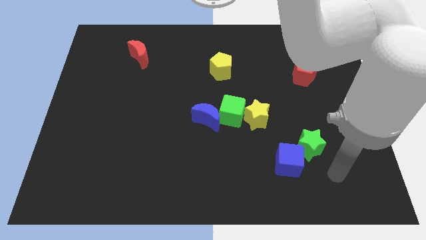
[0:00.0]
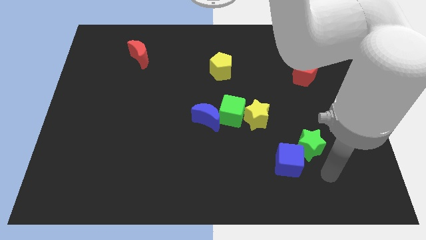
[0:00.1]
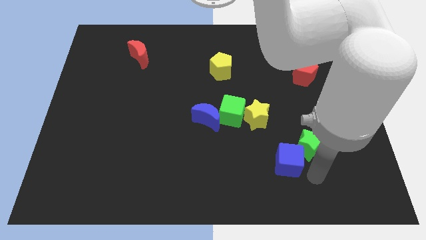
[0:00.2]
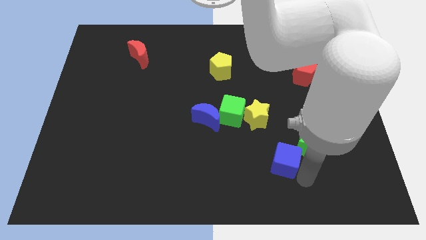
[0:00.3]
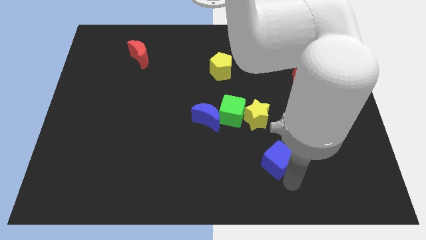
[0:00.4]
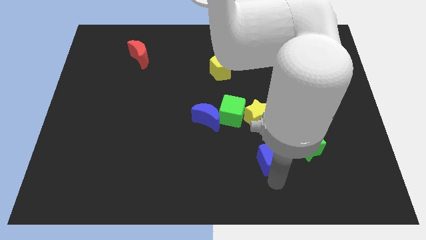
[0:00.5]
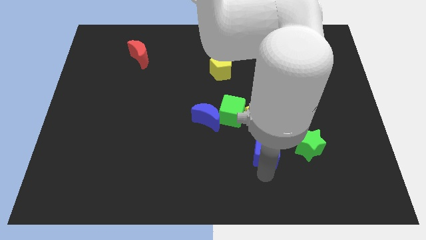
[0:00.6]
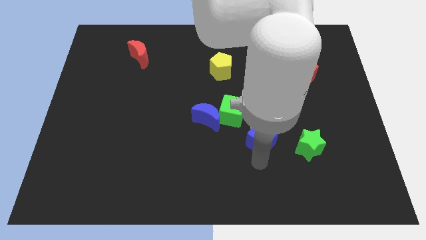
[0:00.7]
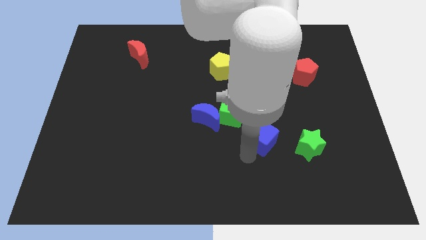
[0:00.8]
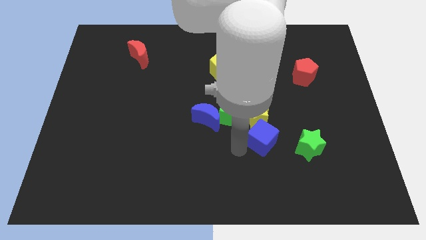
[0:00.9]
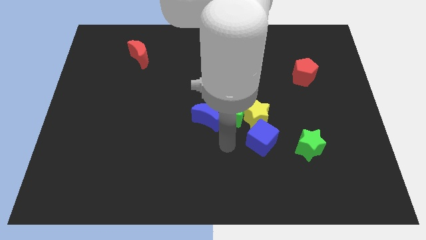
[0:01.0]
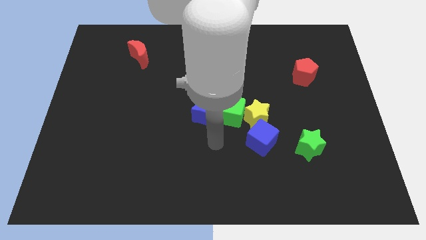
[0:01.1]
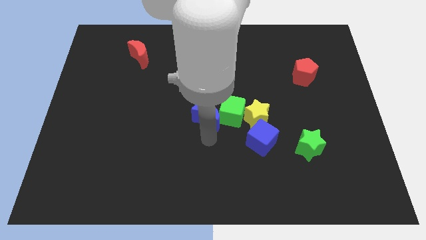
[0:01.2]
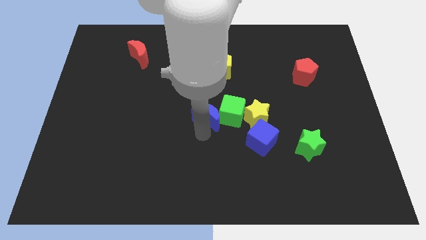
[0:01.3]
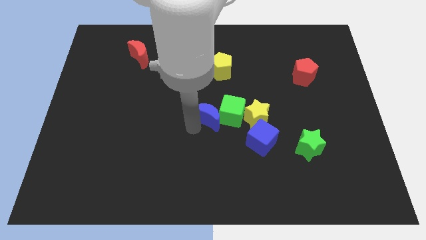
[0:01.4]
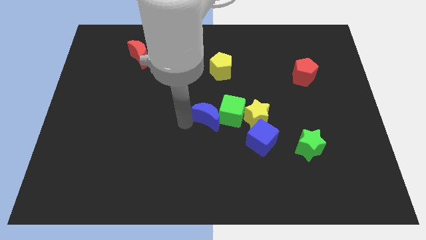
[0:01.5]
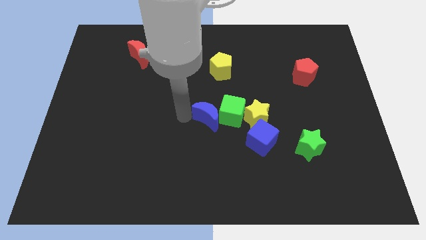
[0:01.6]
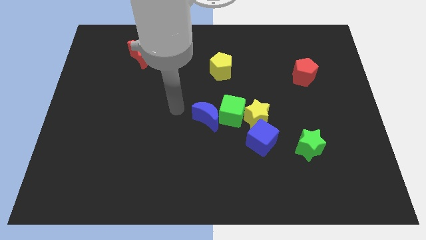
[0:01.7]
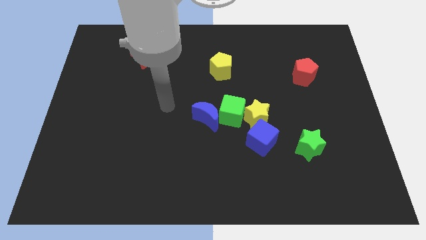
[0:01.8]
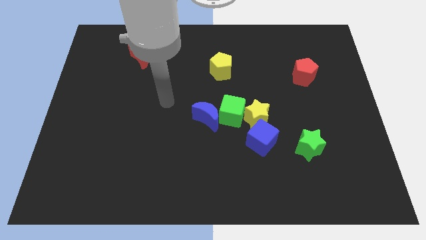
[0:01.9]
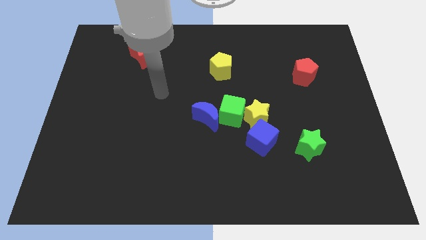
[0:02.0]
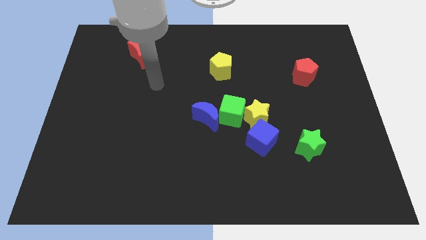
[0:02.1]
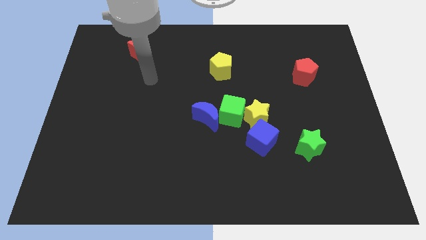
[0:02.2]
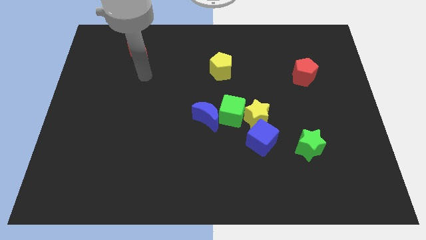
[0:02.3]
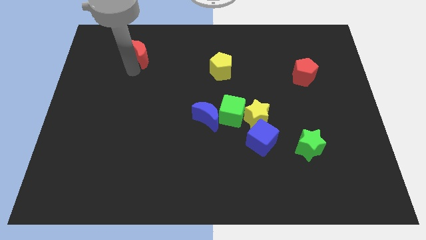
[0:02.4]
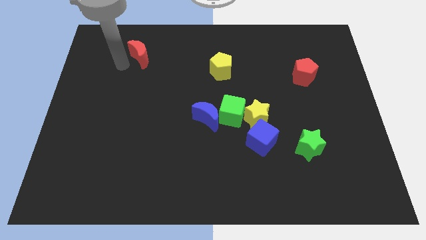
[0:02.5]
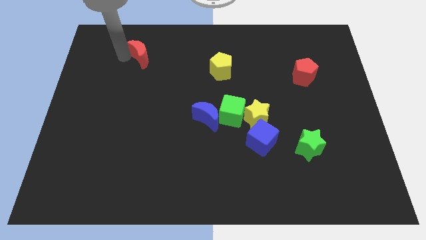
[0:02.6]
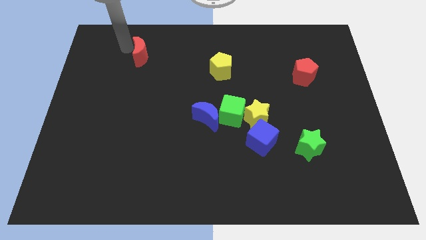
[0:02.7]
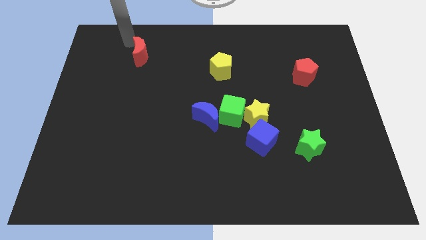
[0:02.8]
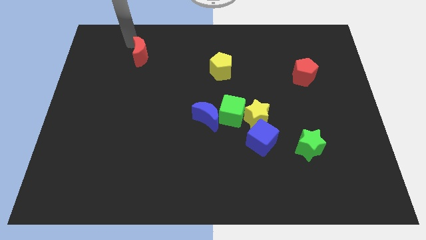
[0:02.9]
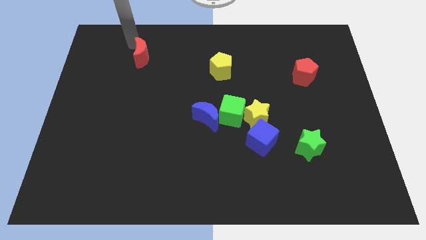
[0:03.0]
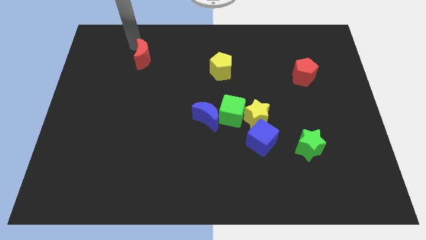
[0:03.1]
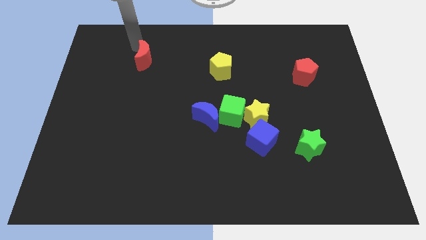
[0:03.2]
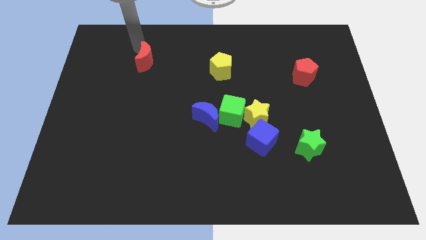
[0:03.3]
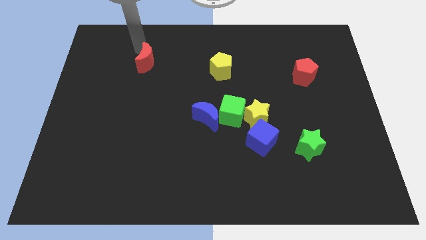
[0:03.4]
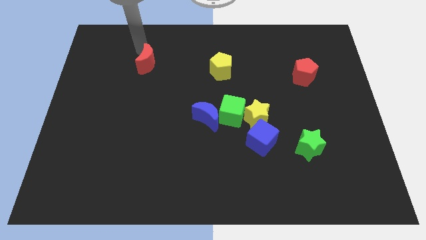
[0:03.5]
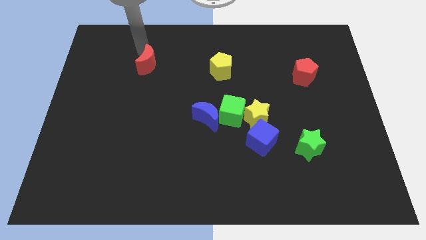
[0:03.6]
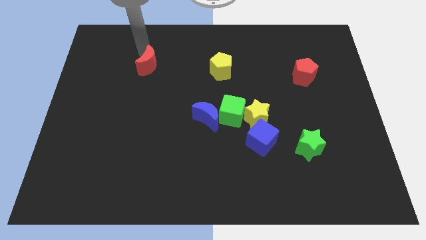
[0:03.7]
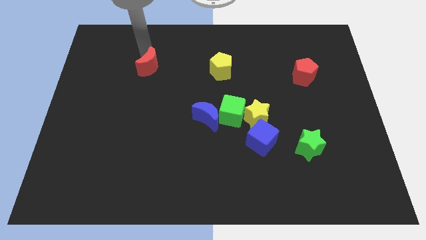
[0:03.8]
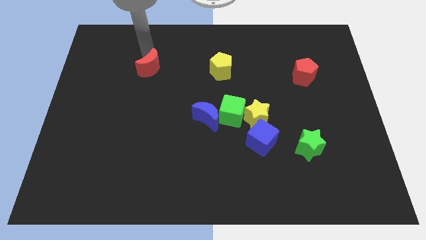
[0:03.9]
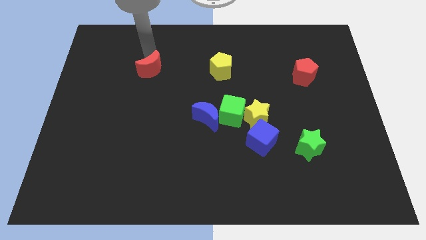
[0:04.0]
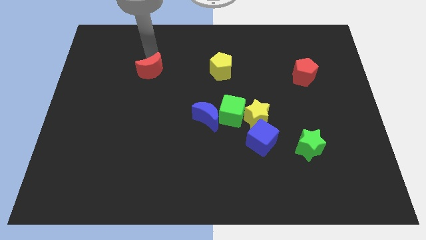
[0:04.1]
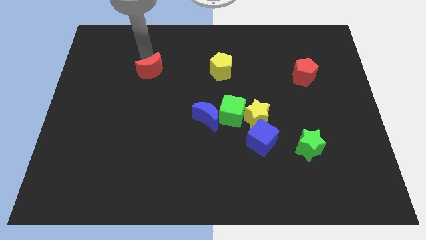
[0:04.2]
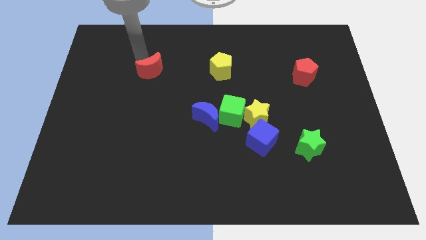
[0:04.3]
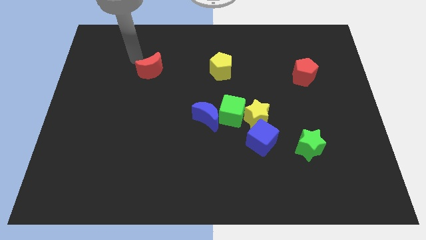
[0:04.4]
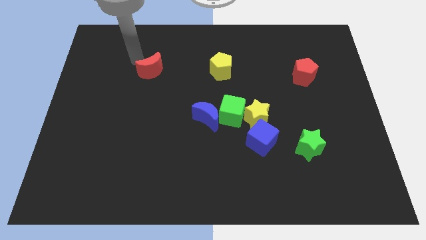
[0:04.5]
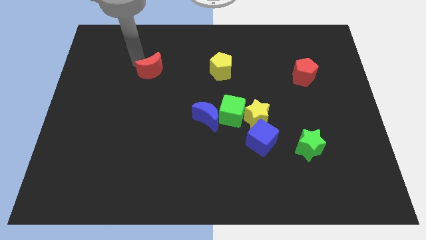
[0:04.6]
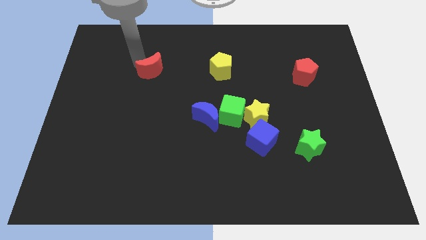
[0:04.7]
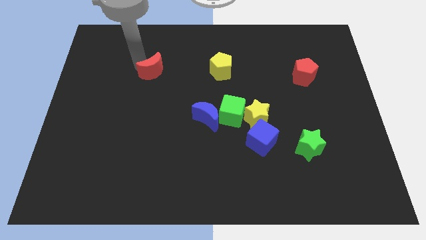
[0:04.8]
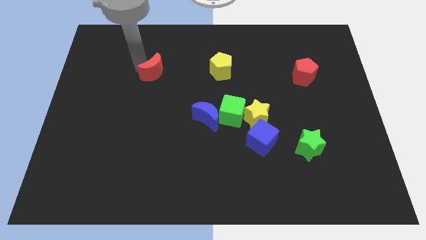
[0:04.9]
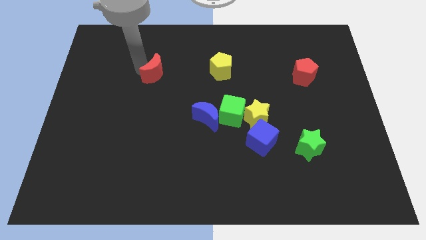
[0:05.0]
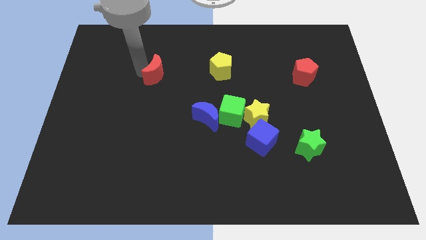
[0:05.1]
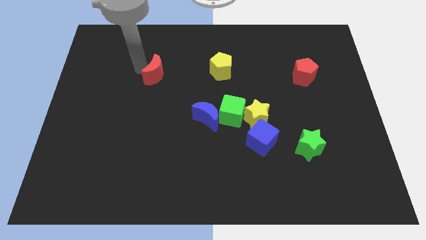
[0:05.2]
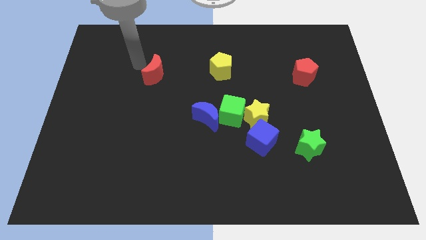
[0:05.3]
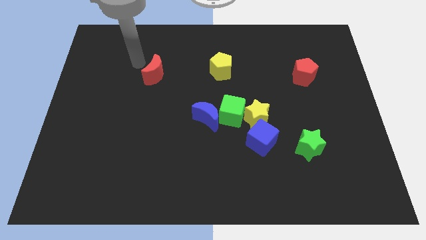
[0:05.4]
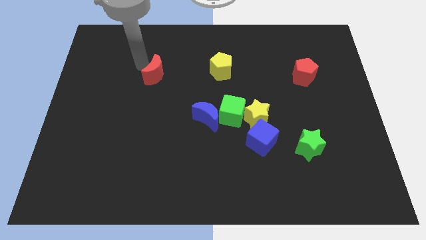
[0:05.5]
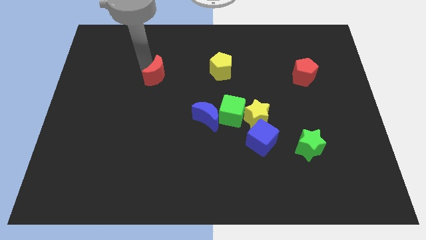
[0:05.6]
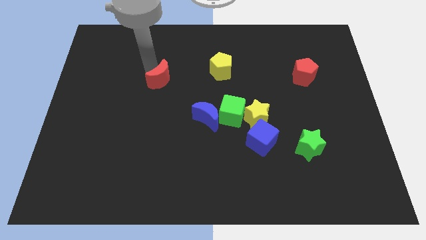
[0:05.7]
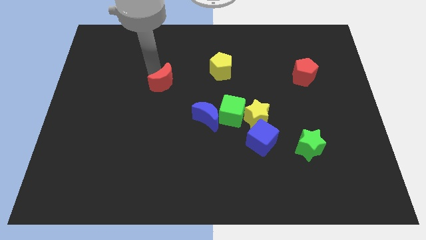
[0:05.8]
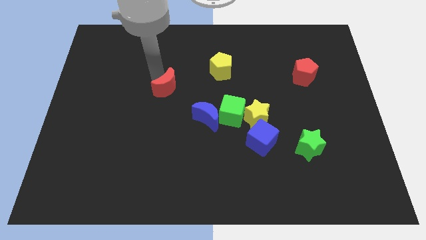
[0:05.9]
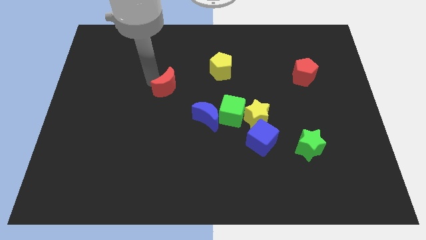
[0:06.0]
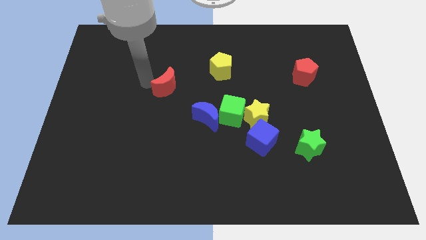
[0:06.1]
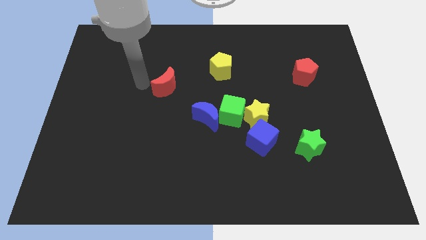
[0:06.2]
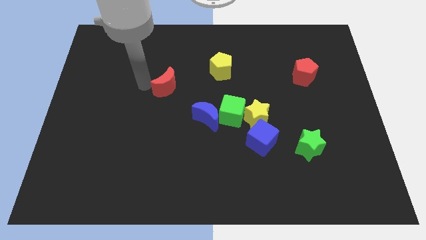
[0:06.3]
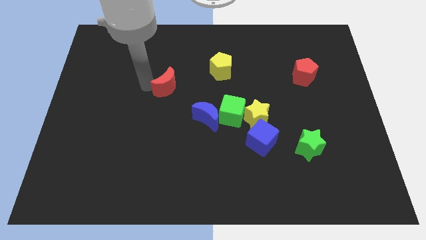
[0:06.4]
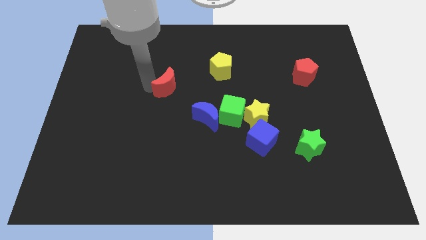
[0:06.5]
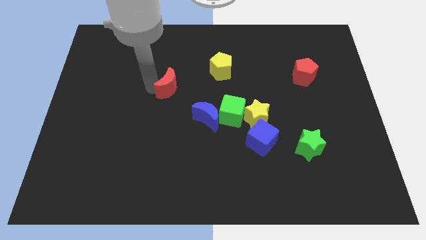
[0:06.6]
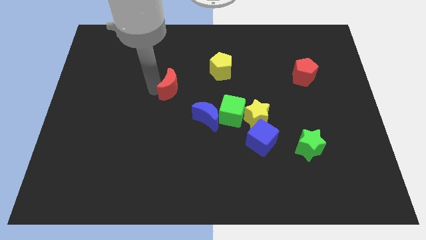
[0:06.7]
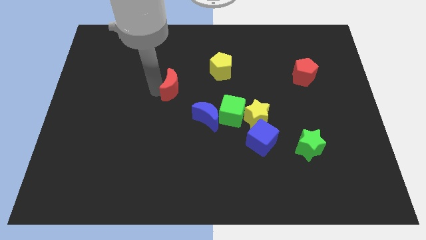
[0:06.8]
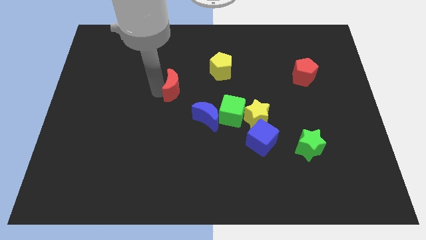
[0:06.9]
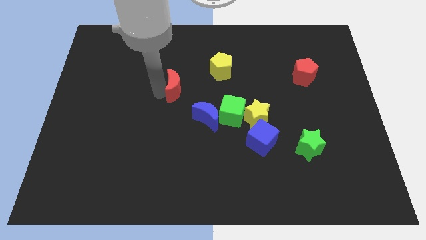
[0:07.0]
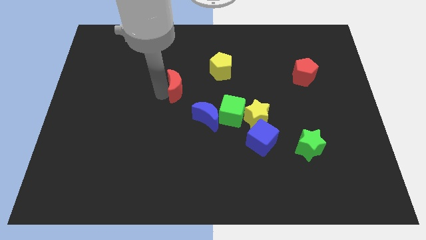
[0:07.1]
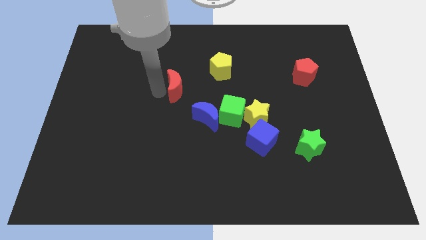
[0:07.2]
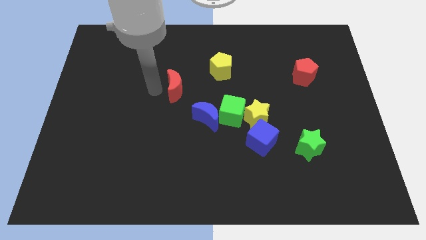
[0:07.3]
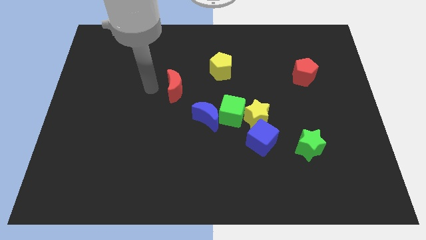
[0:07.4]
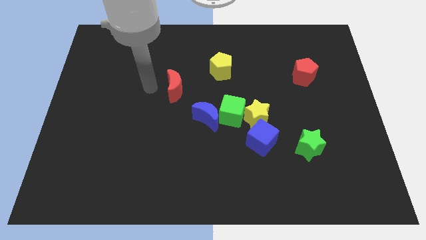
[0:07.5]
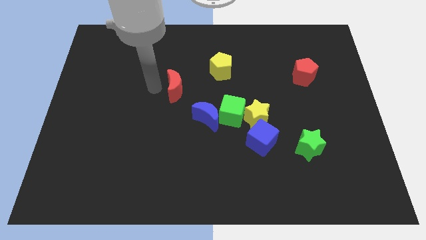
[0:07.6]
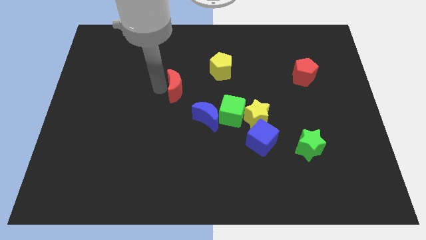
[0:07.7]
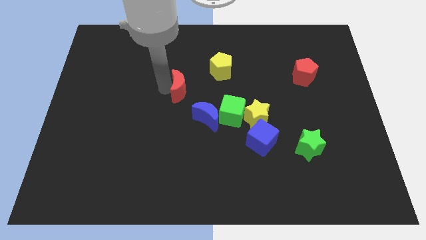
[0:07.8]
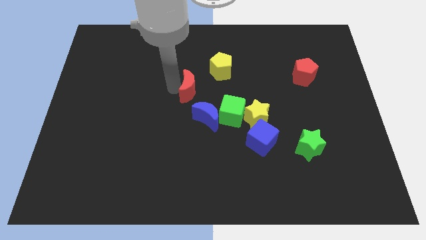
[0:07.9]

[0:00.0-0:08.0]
put the red moon to the top left side of the green cube
